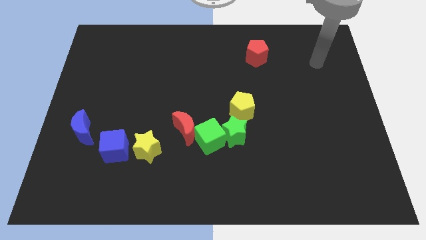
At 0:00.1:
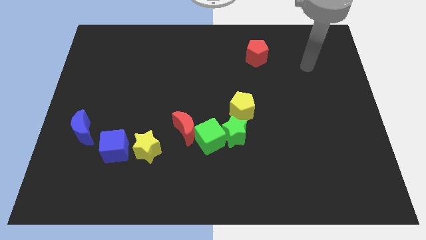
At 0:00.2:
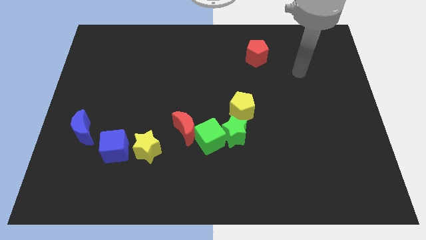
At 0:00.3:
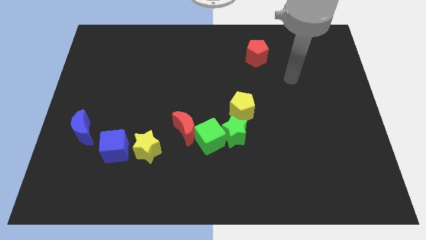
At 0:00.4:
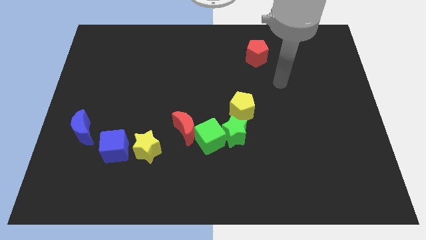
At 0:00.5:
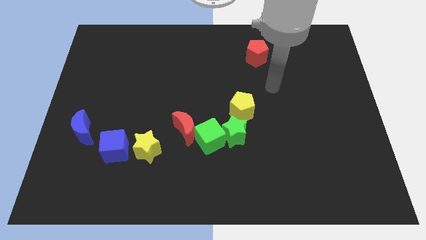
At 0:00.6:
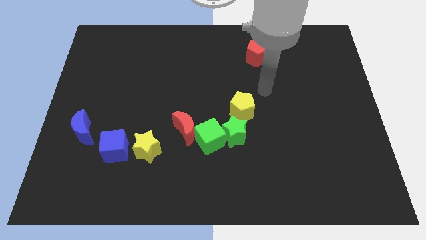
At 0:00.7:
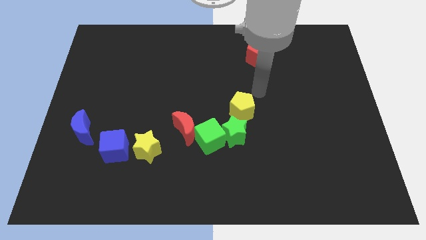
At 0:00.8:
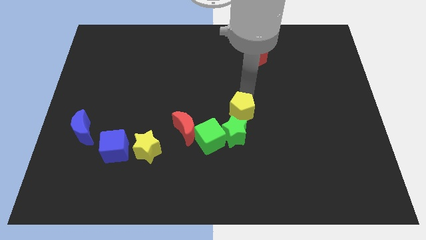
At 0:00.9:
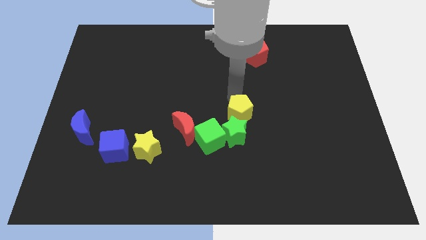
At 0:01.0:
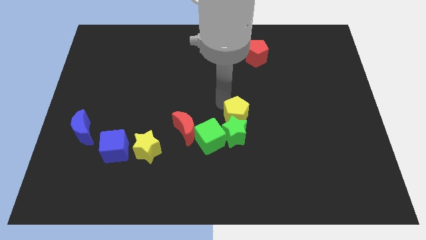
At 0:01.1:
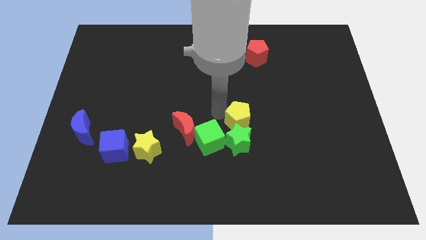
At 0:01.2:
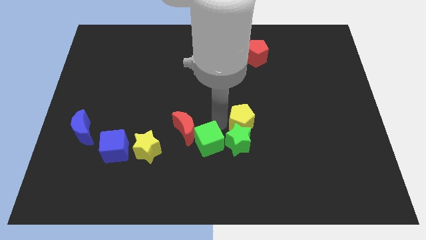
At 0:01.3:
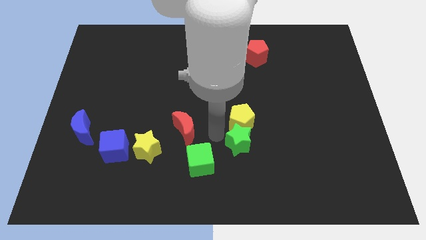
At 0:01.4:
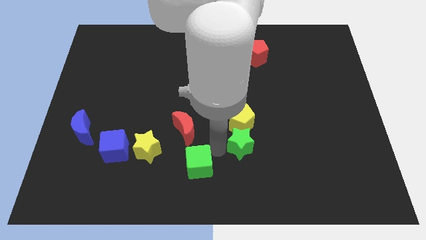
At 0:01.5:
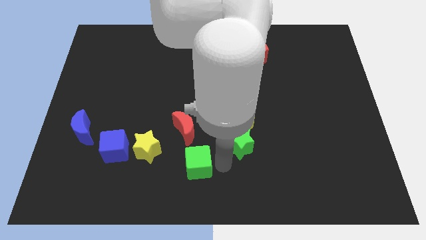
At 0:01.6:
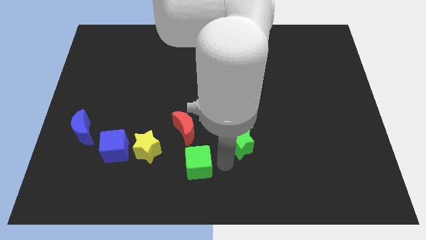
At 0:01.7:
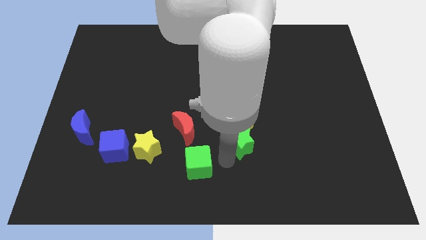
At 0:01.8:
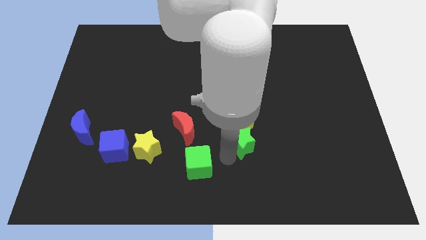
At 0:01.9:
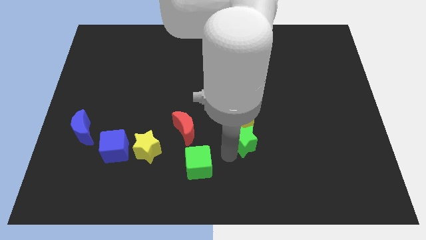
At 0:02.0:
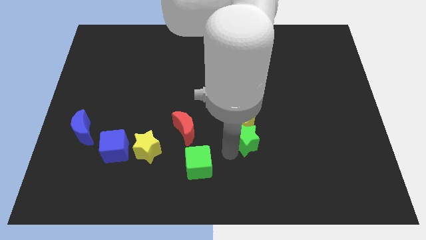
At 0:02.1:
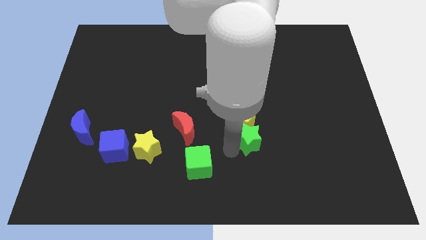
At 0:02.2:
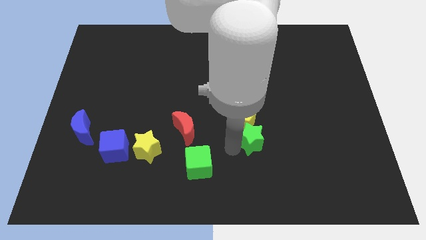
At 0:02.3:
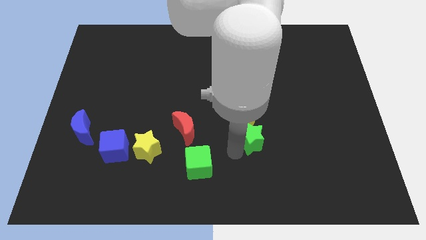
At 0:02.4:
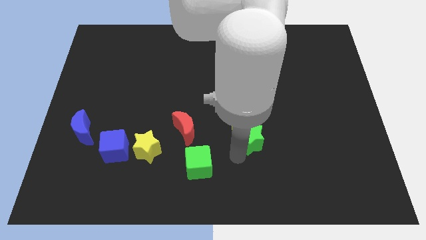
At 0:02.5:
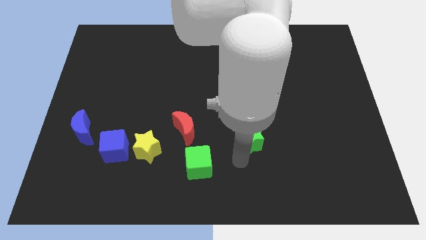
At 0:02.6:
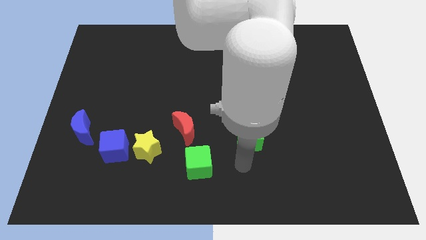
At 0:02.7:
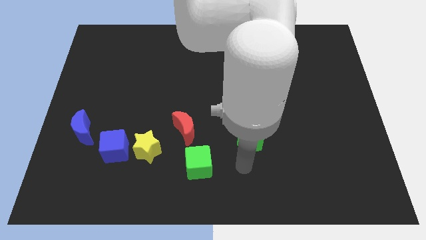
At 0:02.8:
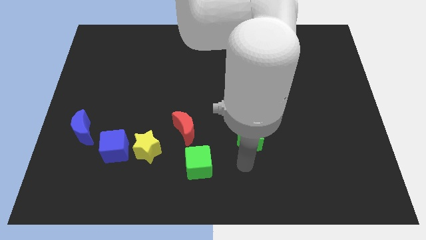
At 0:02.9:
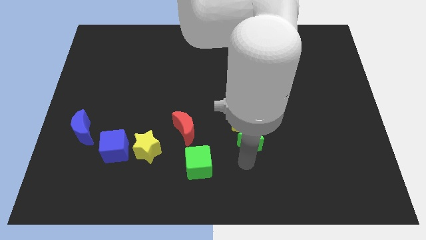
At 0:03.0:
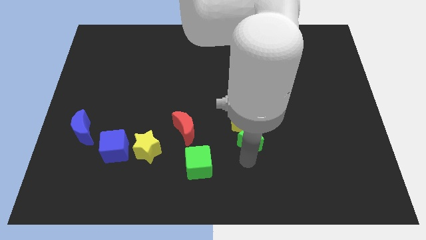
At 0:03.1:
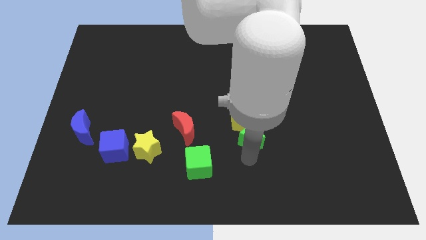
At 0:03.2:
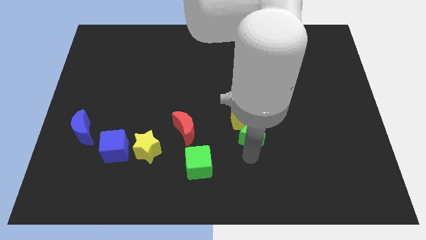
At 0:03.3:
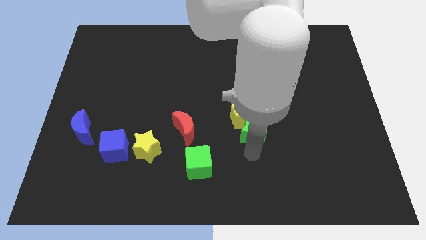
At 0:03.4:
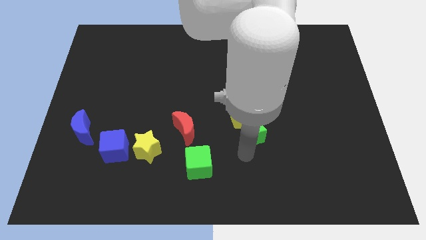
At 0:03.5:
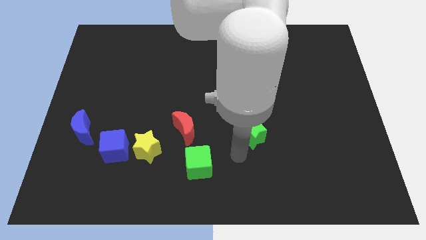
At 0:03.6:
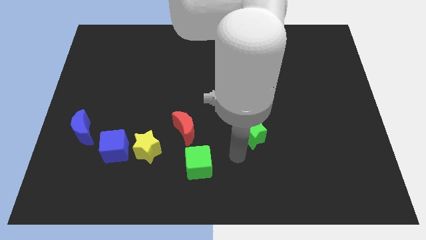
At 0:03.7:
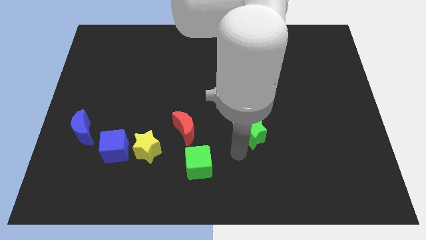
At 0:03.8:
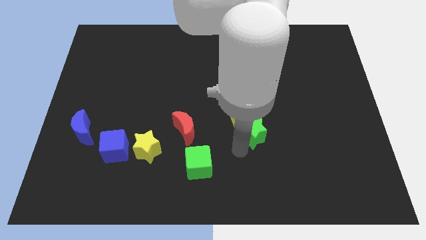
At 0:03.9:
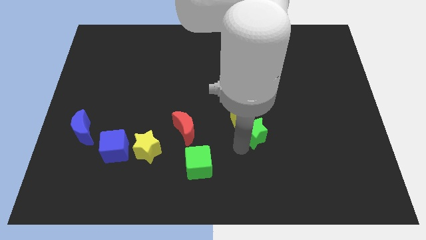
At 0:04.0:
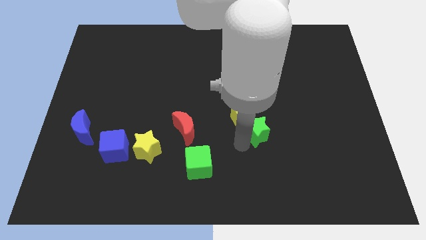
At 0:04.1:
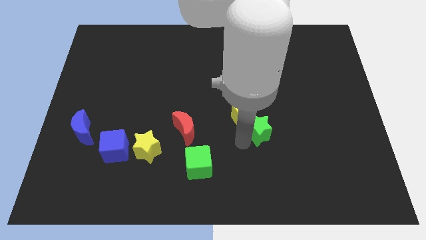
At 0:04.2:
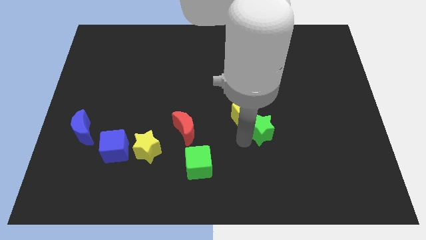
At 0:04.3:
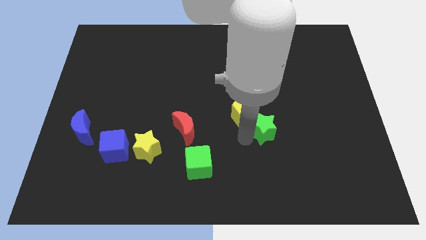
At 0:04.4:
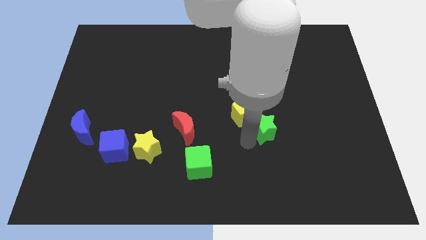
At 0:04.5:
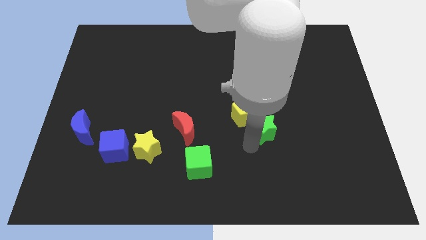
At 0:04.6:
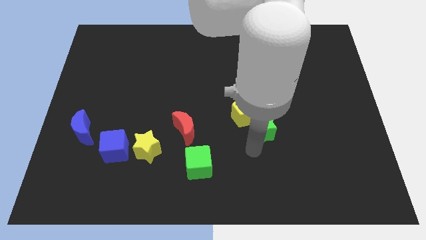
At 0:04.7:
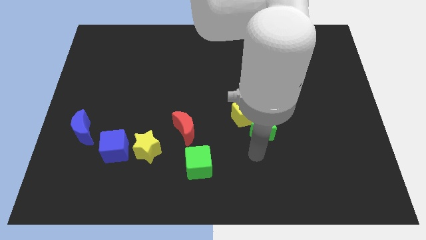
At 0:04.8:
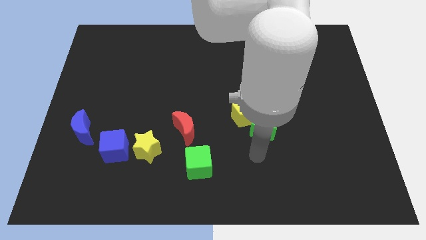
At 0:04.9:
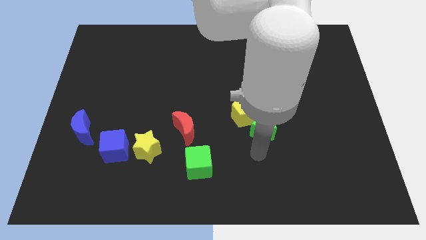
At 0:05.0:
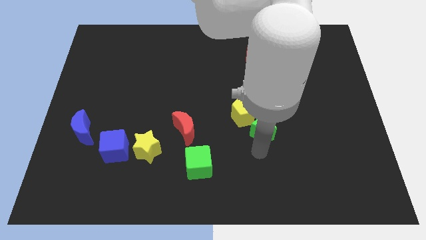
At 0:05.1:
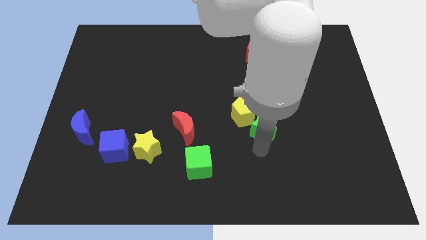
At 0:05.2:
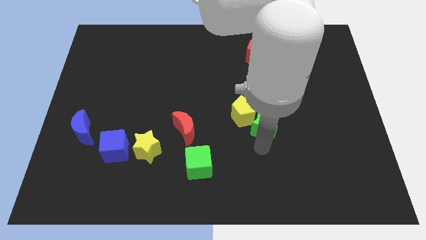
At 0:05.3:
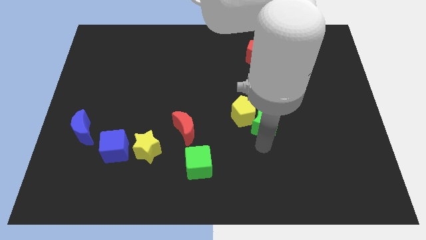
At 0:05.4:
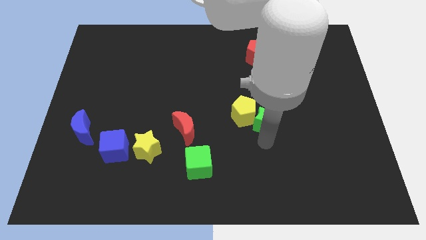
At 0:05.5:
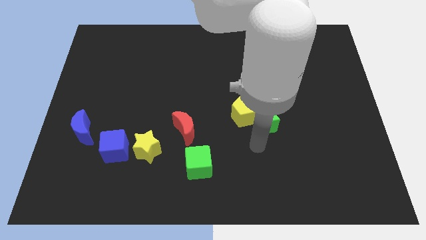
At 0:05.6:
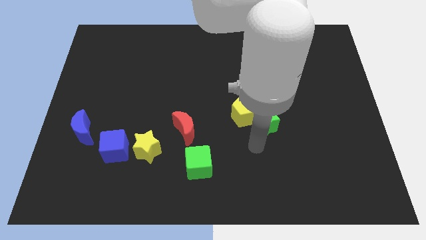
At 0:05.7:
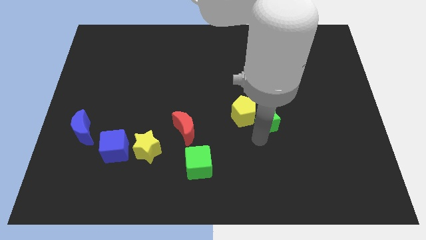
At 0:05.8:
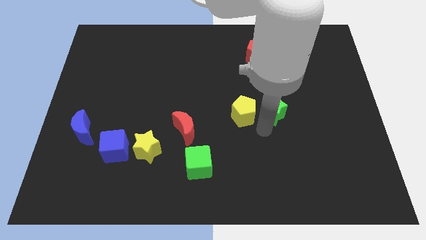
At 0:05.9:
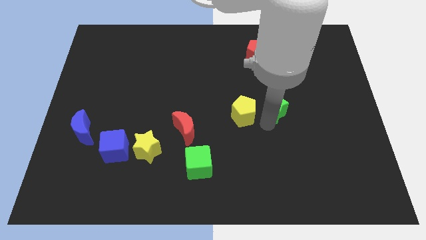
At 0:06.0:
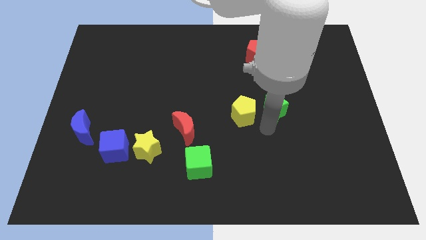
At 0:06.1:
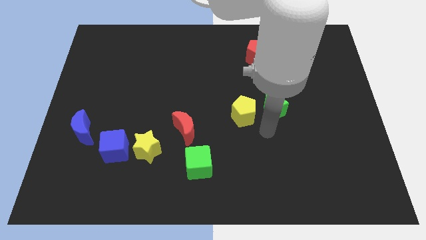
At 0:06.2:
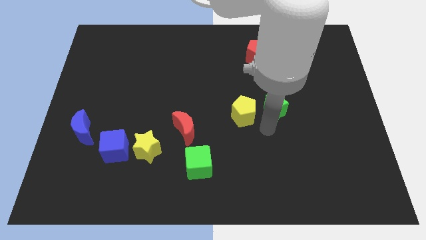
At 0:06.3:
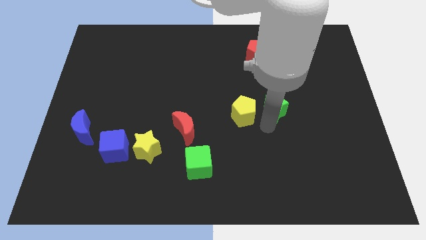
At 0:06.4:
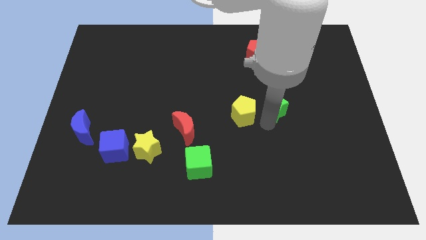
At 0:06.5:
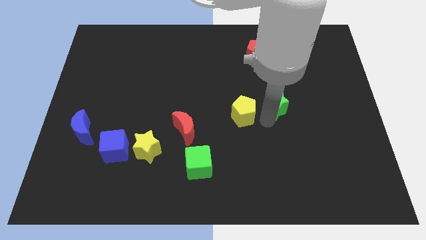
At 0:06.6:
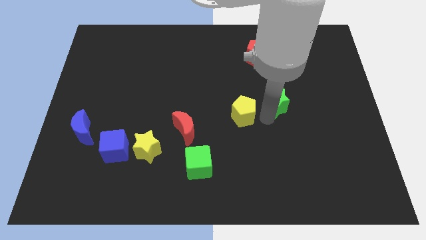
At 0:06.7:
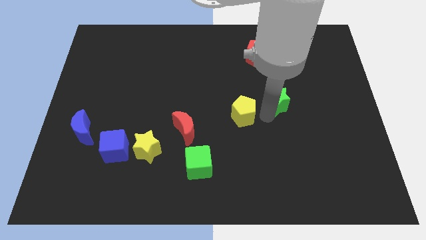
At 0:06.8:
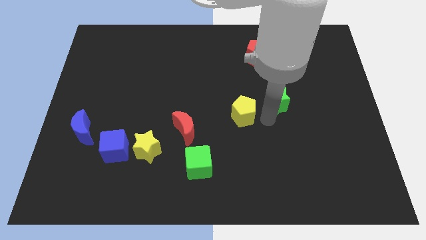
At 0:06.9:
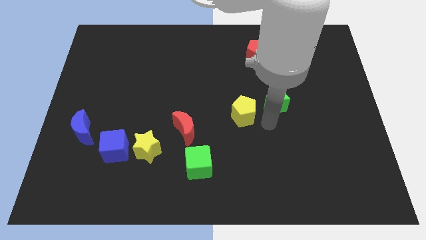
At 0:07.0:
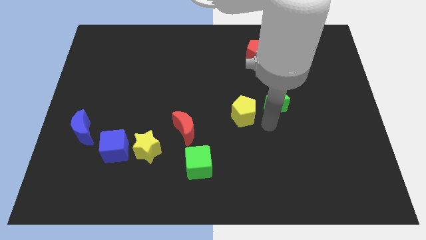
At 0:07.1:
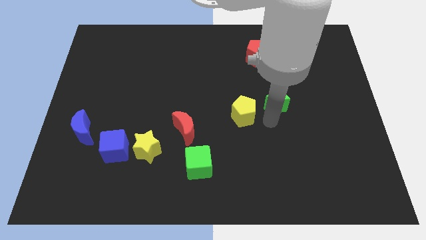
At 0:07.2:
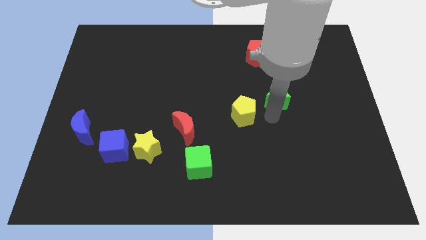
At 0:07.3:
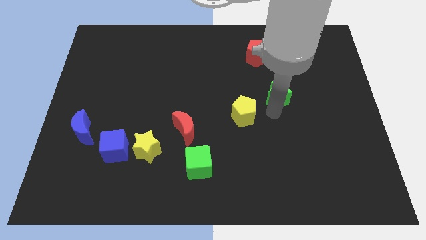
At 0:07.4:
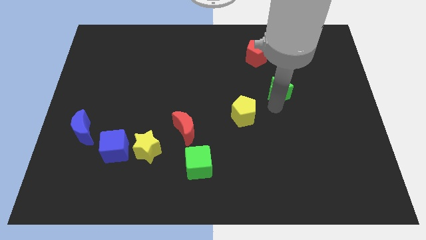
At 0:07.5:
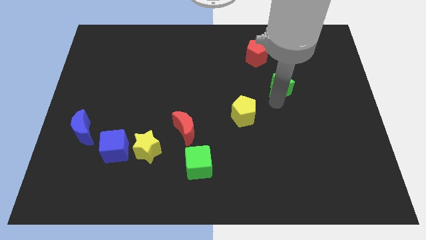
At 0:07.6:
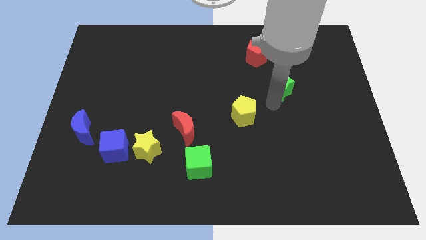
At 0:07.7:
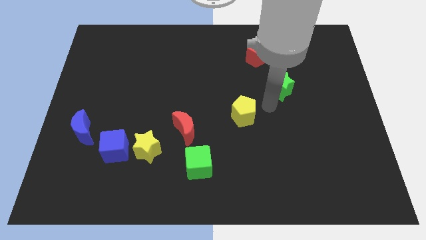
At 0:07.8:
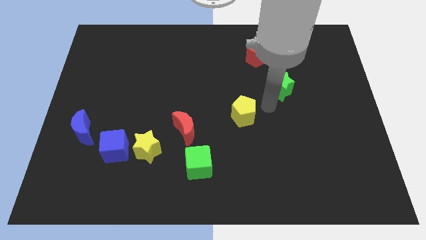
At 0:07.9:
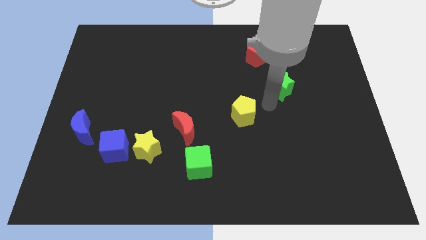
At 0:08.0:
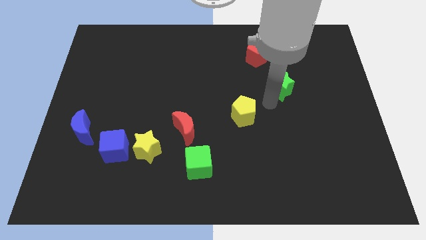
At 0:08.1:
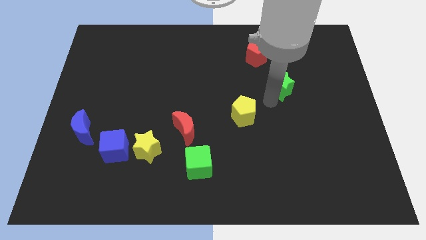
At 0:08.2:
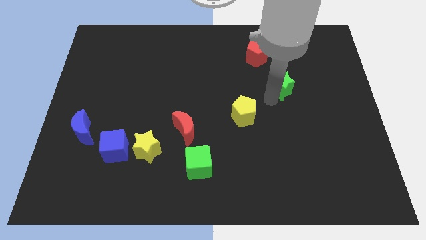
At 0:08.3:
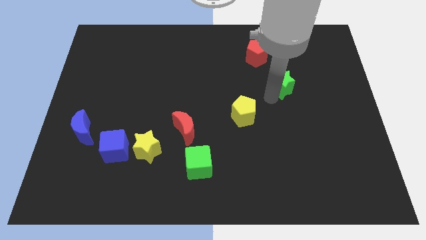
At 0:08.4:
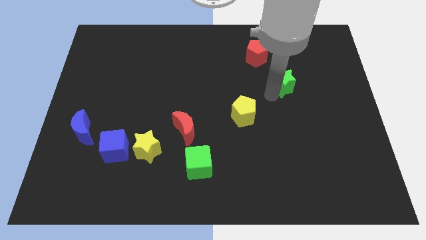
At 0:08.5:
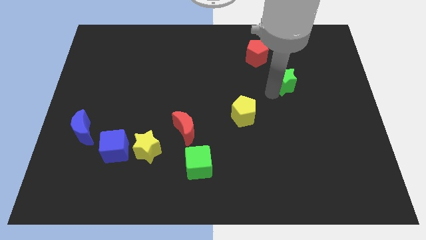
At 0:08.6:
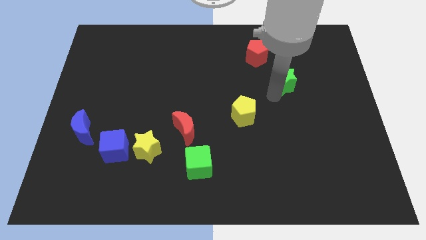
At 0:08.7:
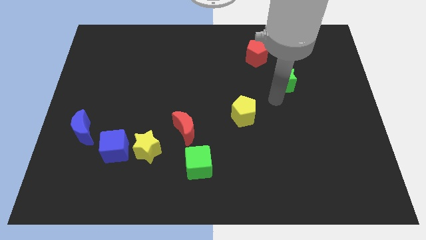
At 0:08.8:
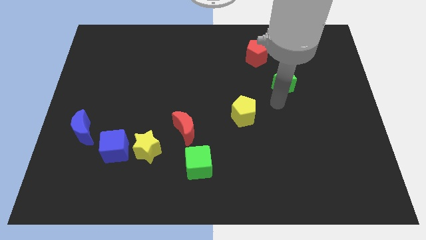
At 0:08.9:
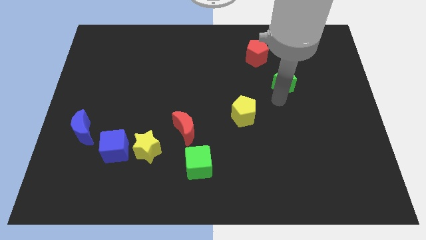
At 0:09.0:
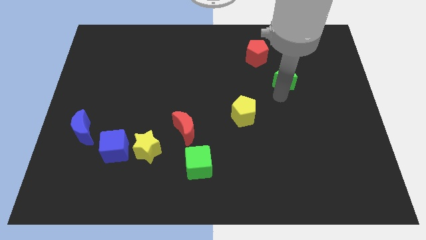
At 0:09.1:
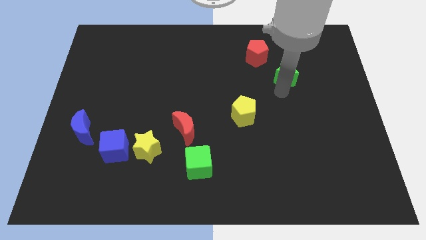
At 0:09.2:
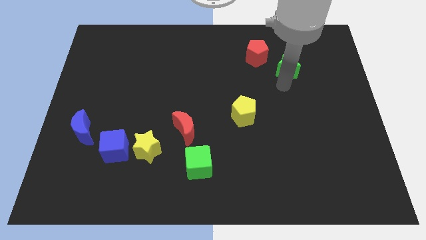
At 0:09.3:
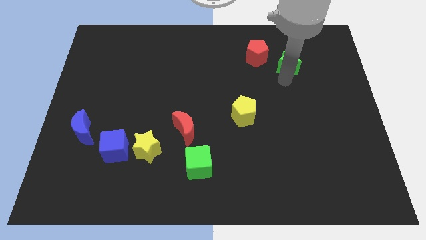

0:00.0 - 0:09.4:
push the green star just right of the red pentagon
